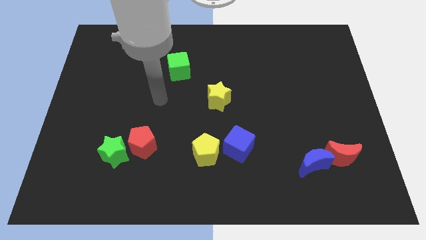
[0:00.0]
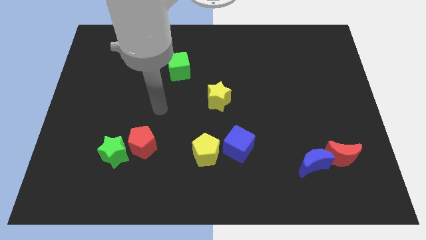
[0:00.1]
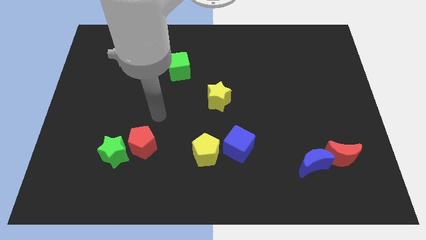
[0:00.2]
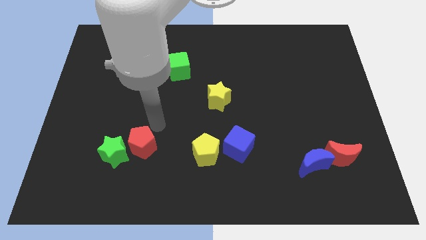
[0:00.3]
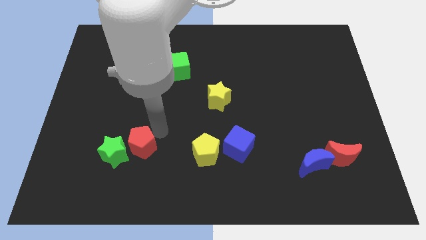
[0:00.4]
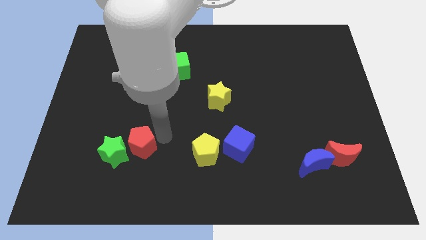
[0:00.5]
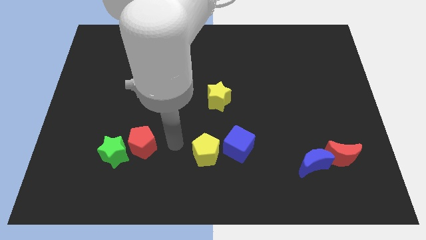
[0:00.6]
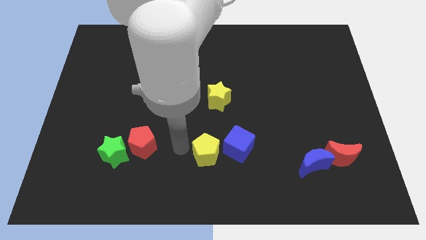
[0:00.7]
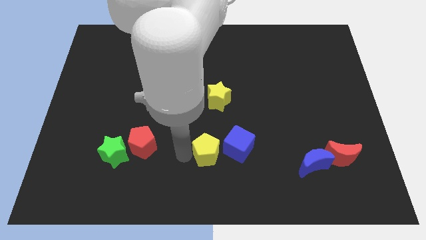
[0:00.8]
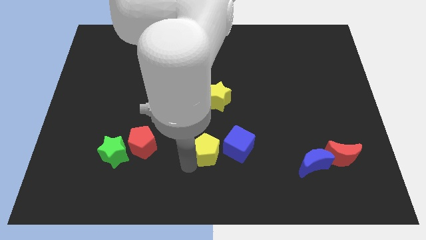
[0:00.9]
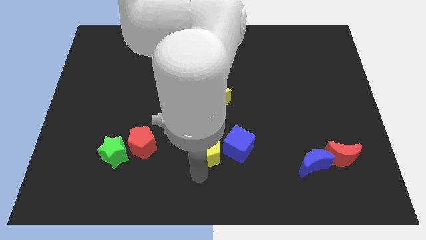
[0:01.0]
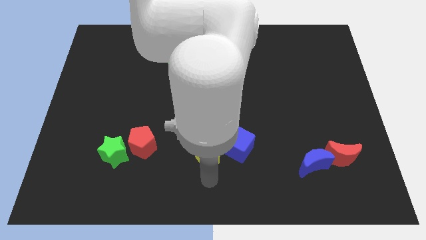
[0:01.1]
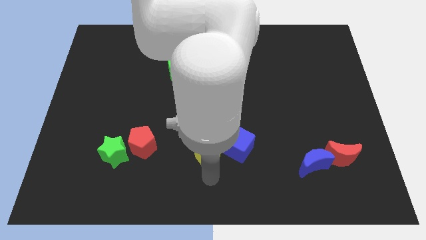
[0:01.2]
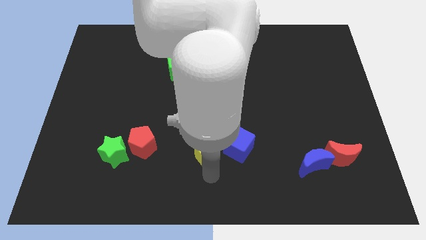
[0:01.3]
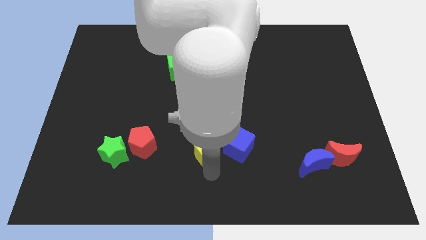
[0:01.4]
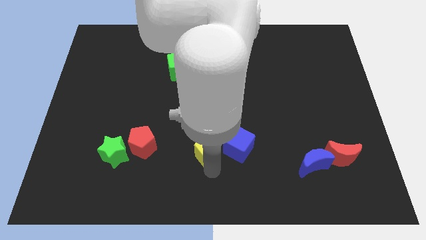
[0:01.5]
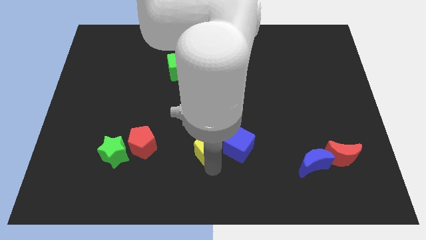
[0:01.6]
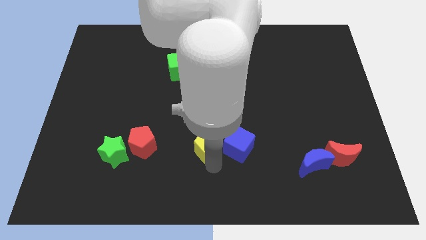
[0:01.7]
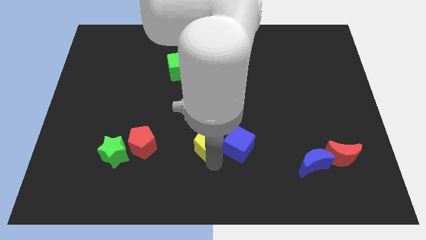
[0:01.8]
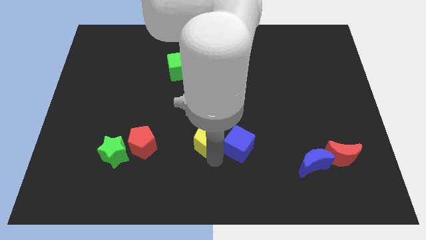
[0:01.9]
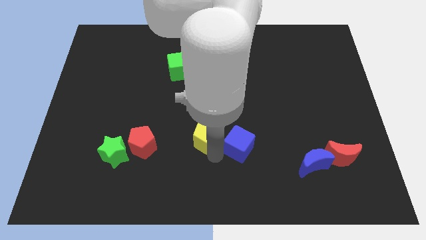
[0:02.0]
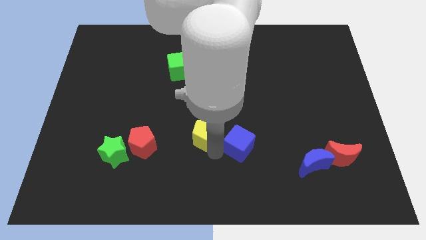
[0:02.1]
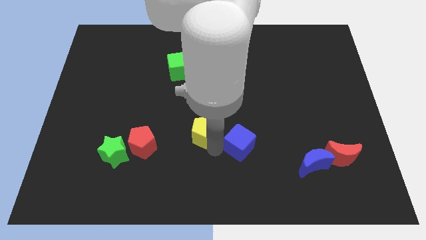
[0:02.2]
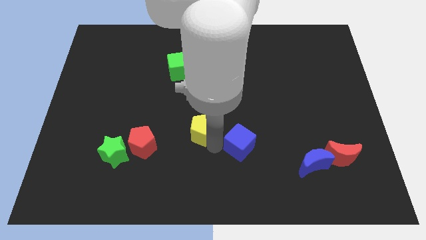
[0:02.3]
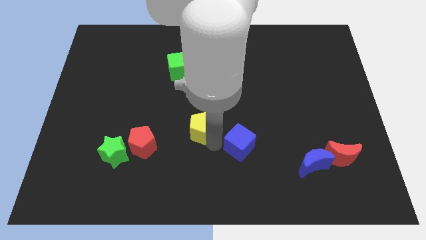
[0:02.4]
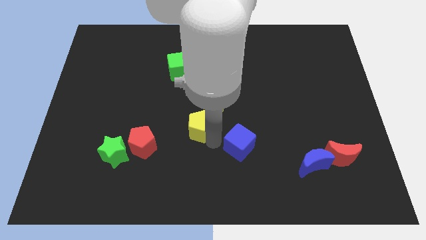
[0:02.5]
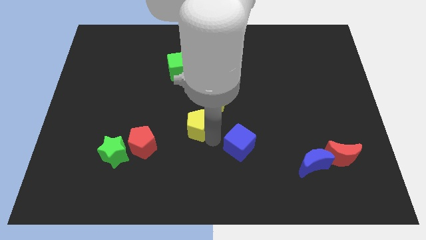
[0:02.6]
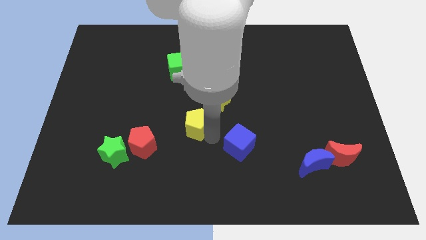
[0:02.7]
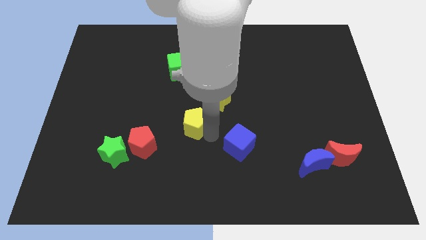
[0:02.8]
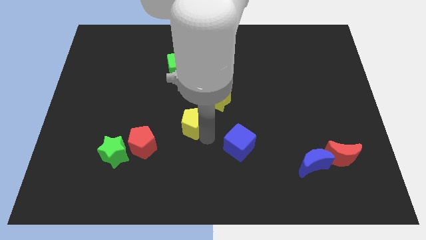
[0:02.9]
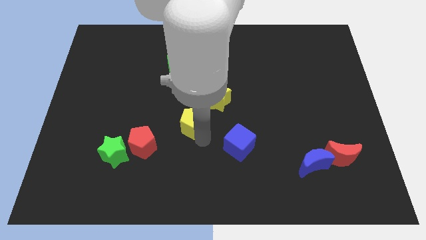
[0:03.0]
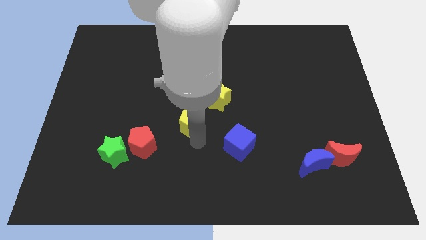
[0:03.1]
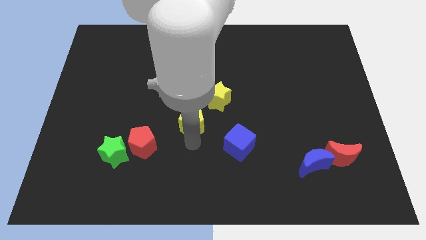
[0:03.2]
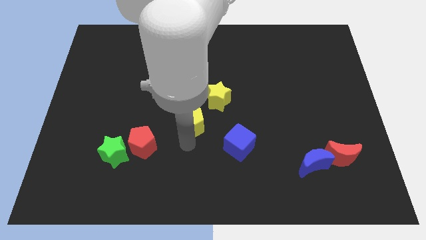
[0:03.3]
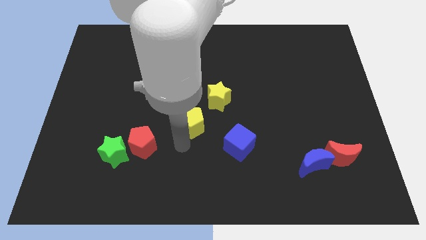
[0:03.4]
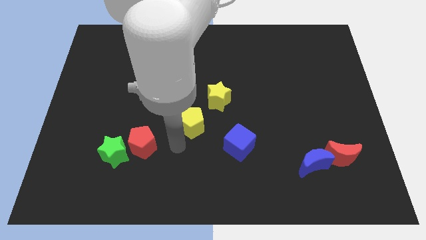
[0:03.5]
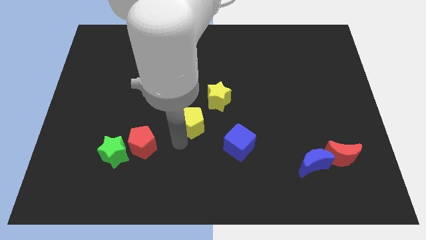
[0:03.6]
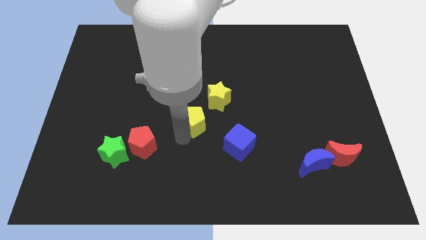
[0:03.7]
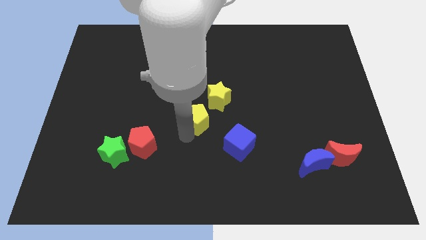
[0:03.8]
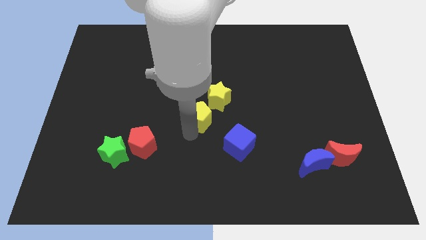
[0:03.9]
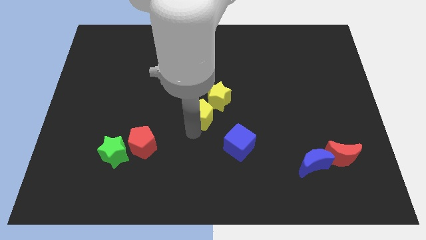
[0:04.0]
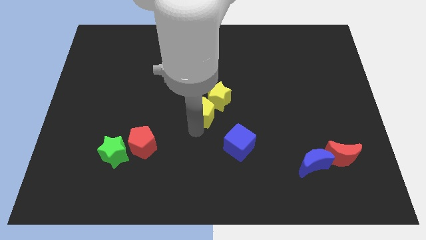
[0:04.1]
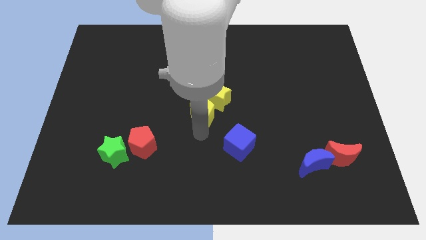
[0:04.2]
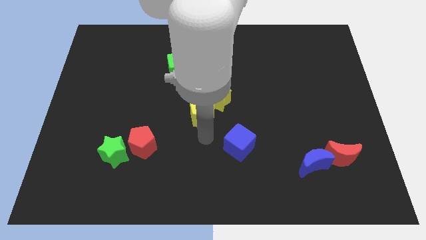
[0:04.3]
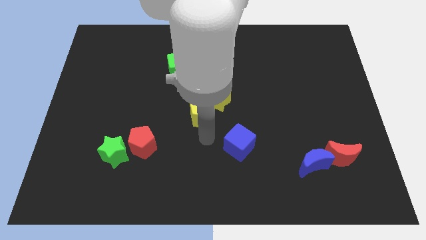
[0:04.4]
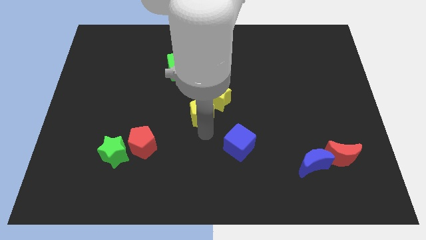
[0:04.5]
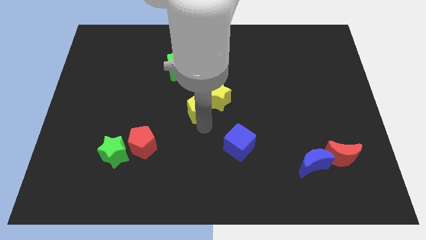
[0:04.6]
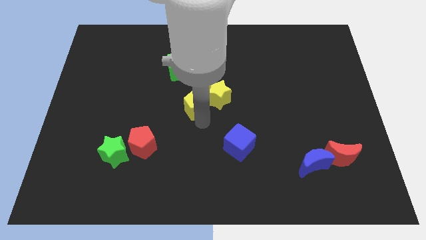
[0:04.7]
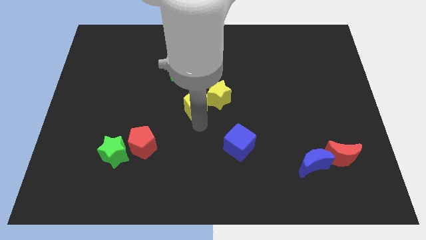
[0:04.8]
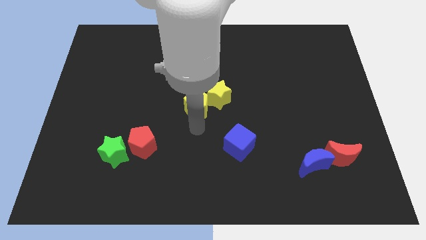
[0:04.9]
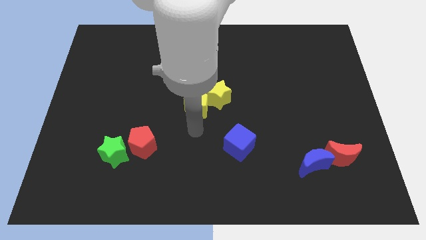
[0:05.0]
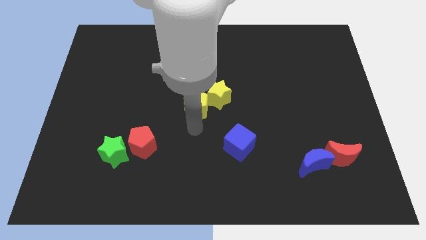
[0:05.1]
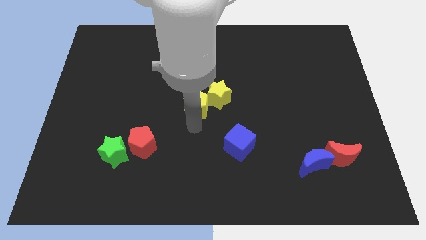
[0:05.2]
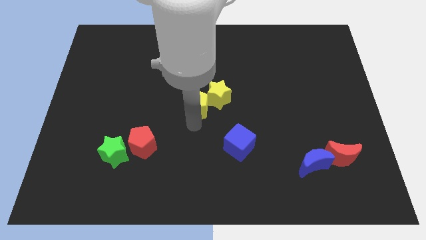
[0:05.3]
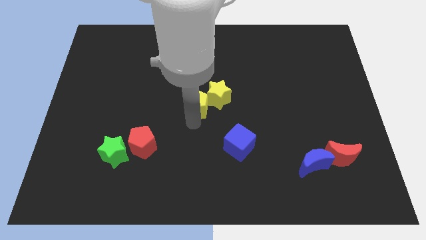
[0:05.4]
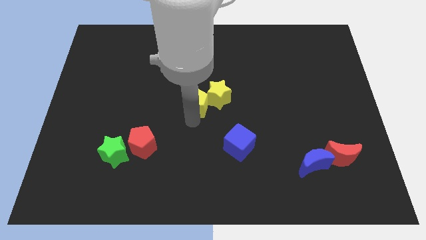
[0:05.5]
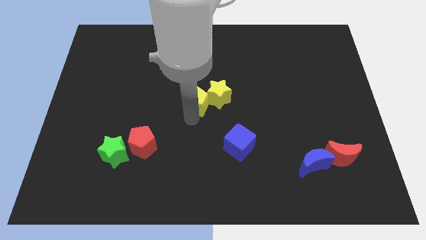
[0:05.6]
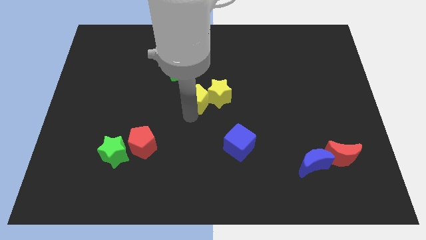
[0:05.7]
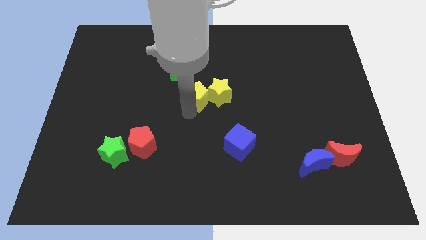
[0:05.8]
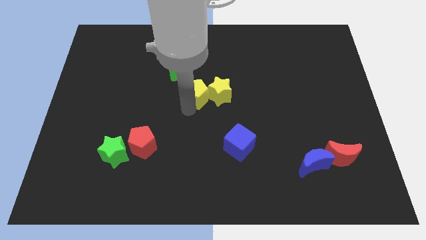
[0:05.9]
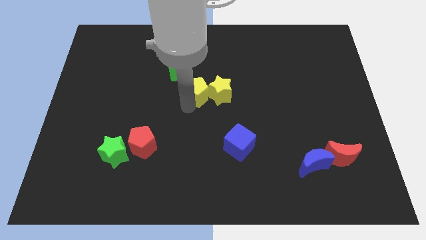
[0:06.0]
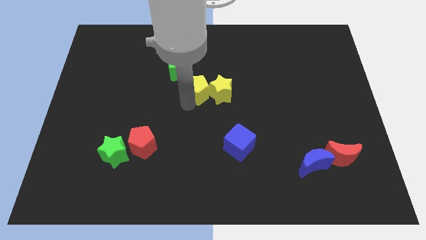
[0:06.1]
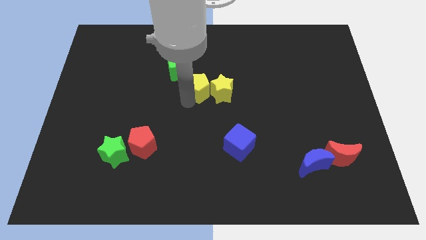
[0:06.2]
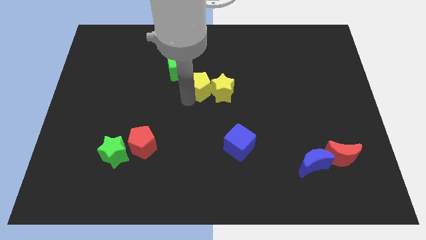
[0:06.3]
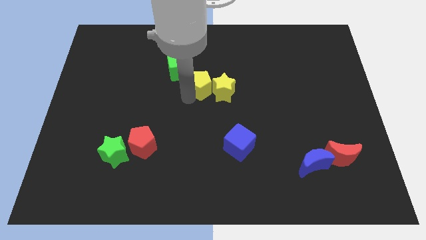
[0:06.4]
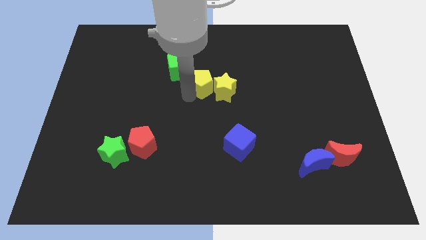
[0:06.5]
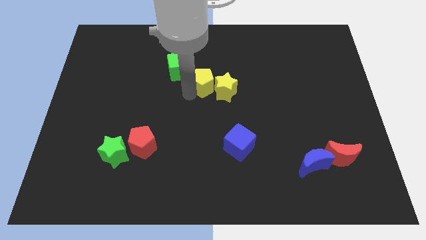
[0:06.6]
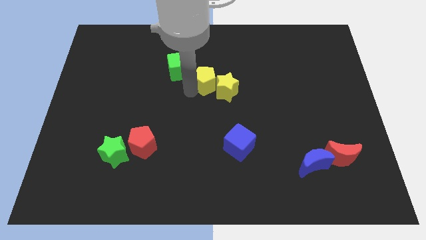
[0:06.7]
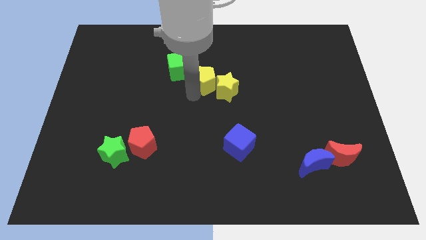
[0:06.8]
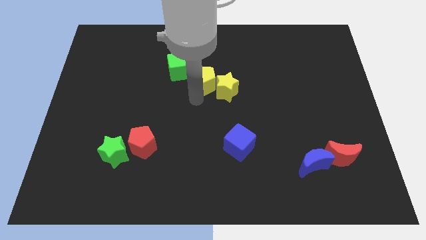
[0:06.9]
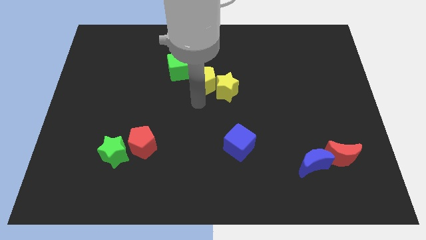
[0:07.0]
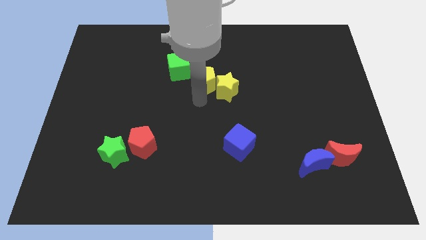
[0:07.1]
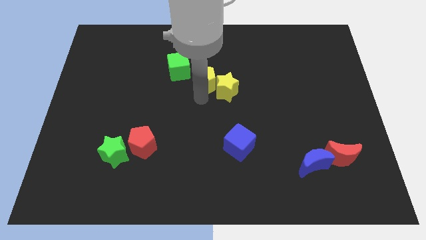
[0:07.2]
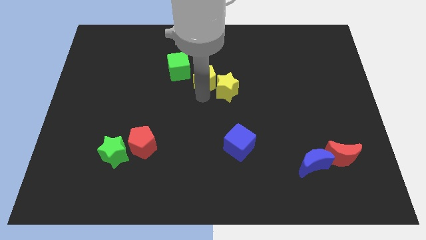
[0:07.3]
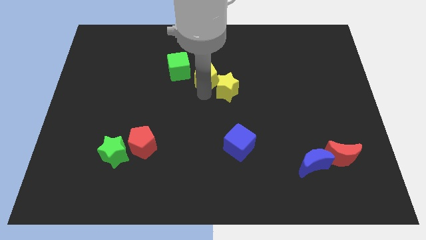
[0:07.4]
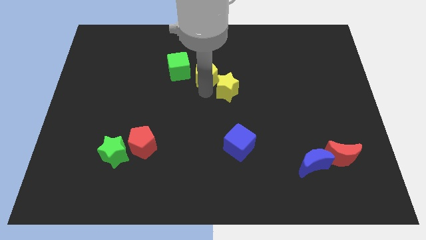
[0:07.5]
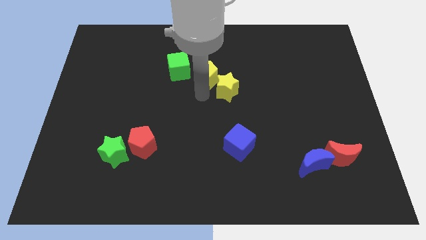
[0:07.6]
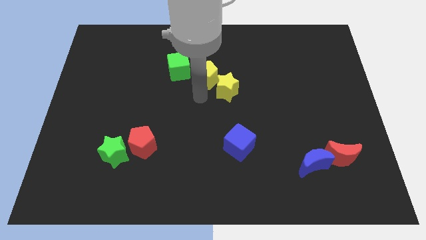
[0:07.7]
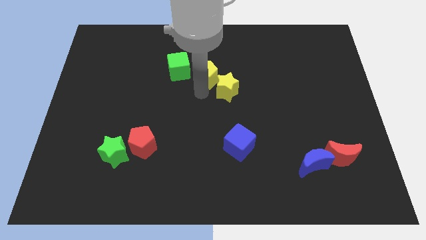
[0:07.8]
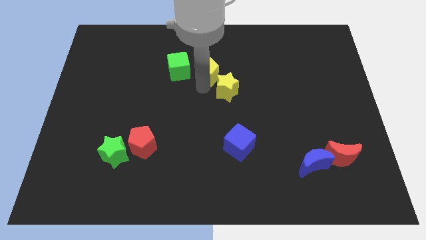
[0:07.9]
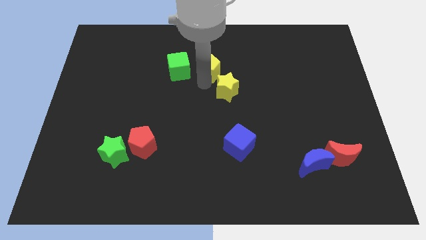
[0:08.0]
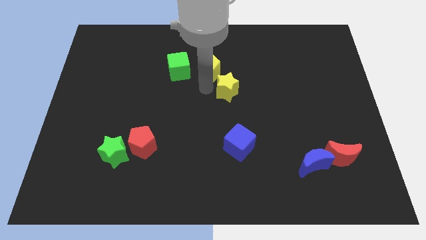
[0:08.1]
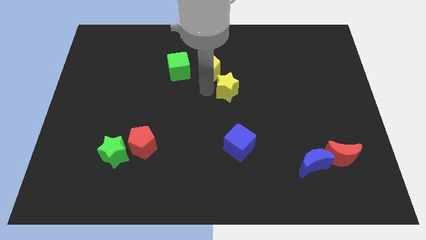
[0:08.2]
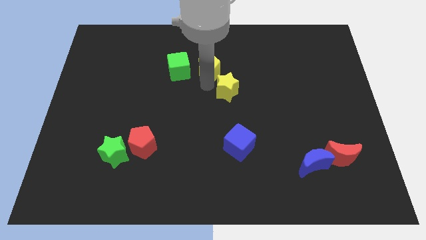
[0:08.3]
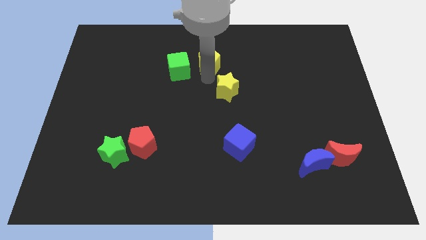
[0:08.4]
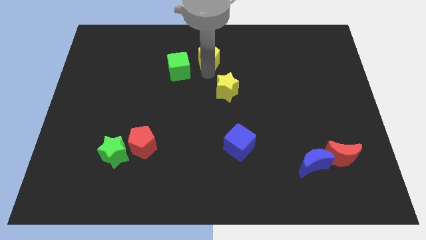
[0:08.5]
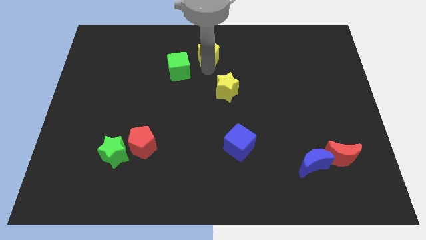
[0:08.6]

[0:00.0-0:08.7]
move the yellow pentagon to the towards your base
